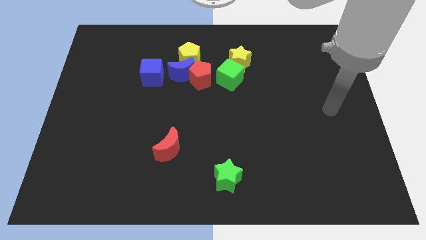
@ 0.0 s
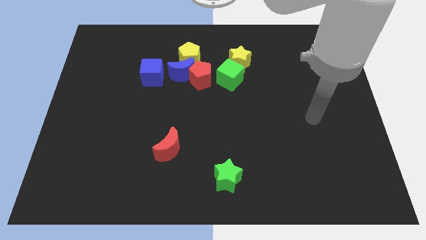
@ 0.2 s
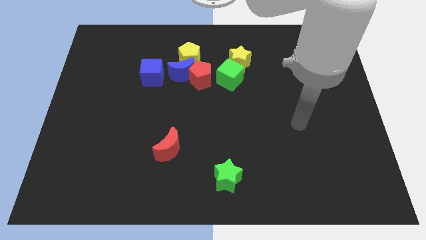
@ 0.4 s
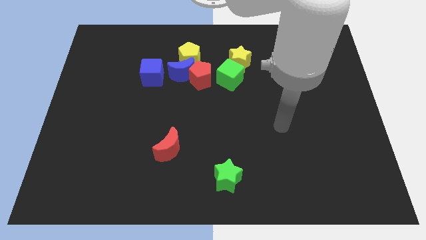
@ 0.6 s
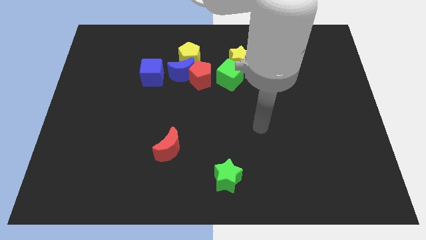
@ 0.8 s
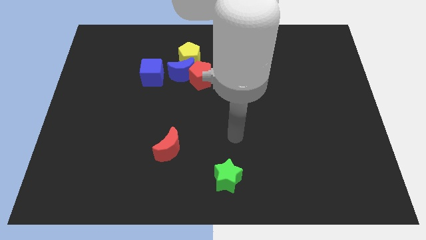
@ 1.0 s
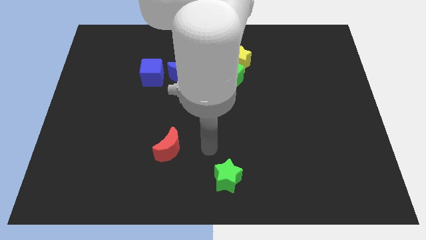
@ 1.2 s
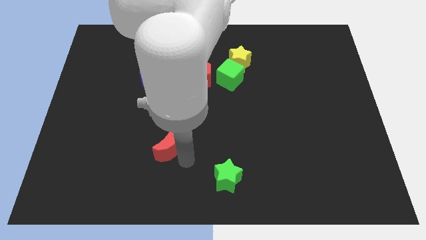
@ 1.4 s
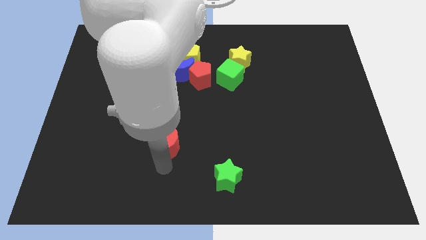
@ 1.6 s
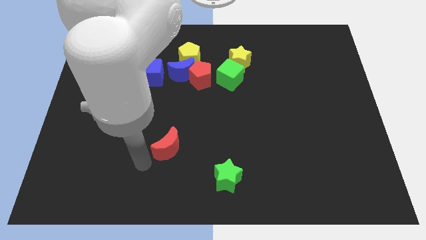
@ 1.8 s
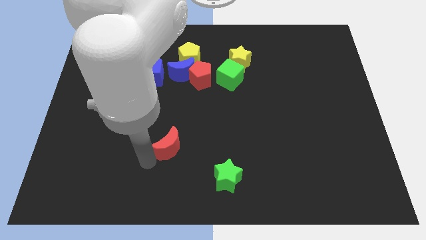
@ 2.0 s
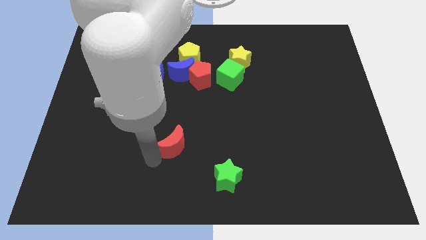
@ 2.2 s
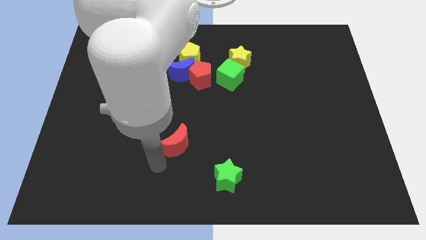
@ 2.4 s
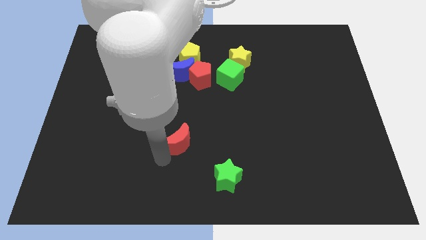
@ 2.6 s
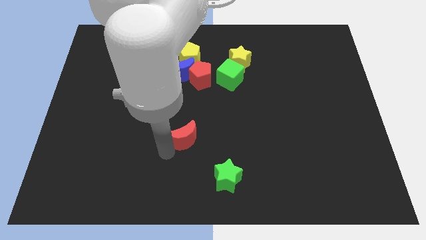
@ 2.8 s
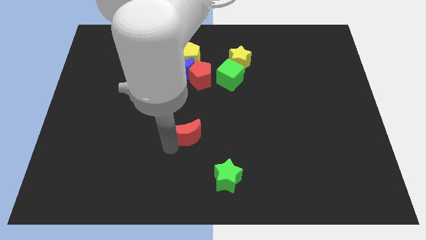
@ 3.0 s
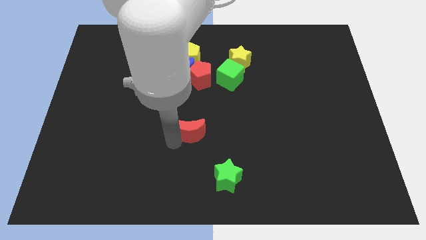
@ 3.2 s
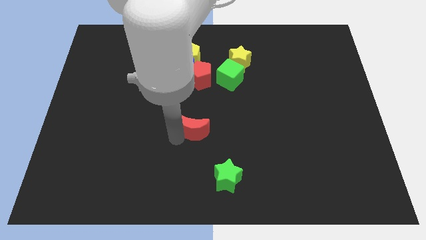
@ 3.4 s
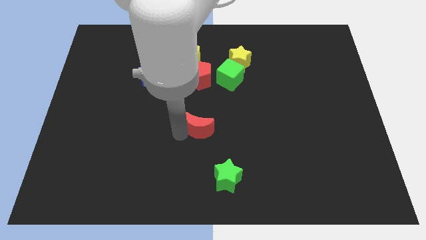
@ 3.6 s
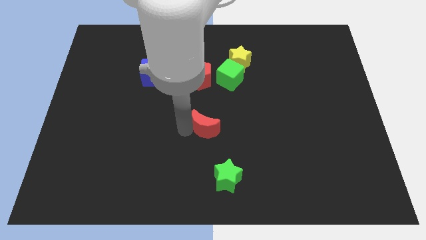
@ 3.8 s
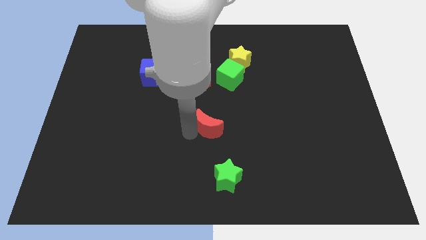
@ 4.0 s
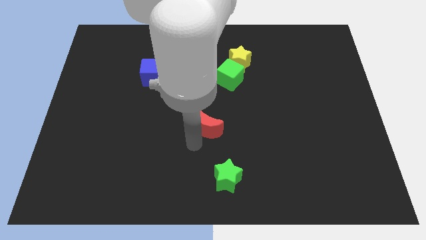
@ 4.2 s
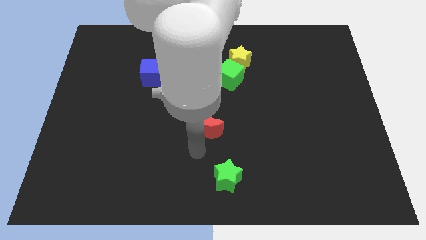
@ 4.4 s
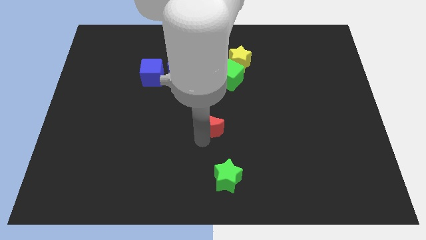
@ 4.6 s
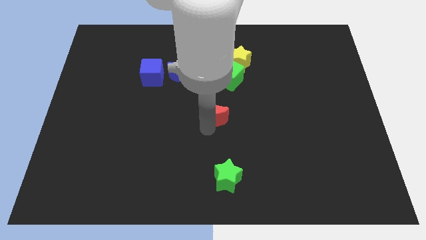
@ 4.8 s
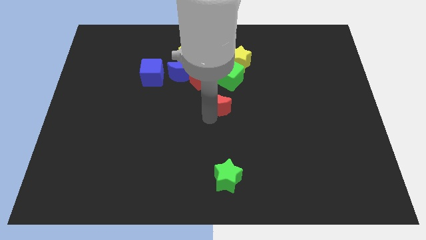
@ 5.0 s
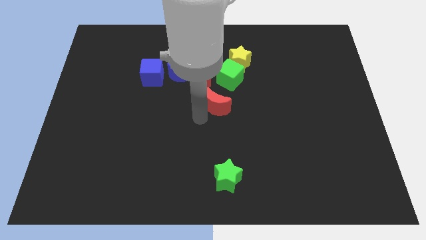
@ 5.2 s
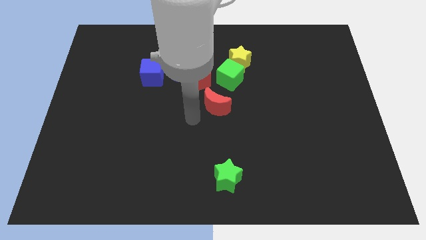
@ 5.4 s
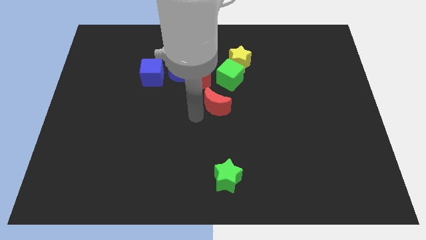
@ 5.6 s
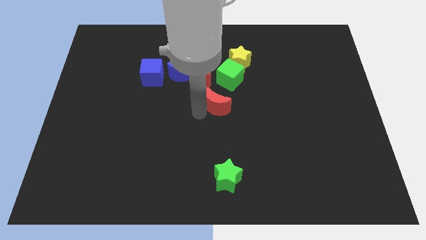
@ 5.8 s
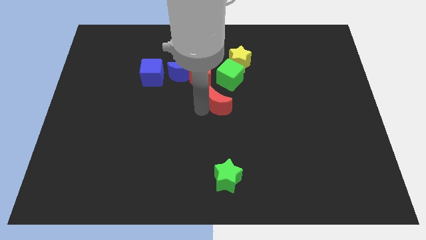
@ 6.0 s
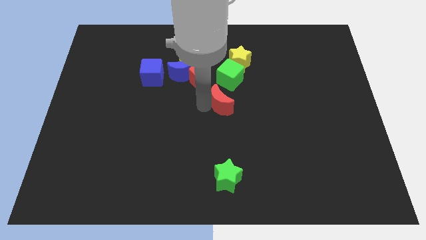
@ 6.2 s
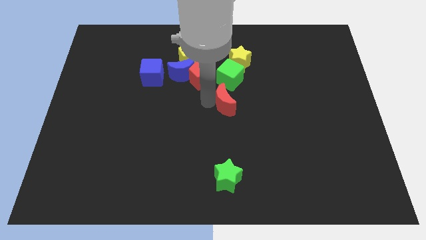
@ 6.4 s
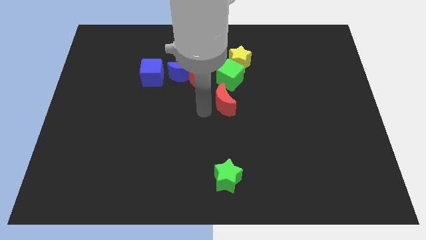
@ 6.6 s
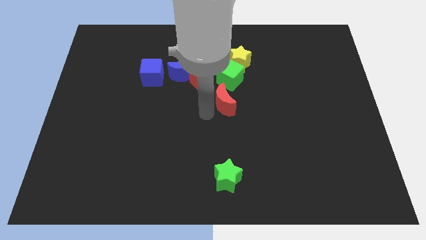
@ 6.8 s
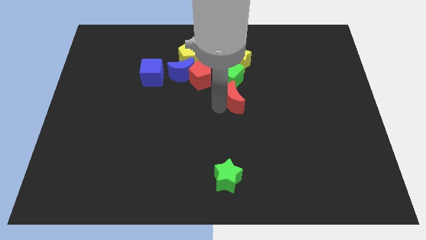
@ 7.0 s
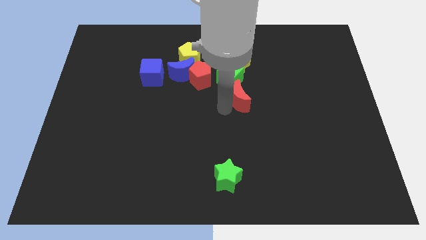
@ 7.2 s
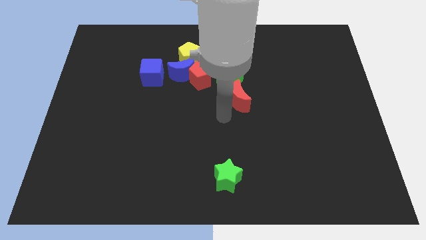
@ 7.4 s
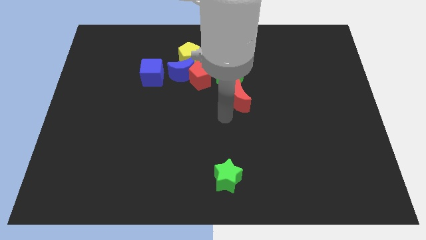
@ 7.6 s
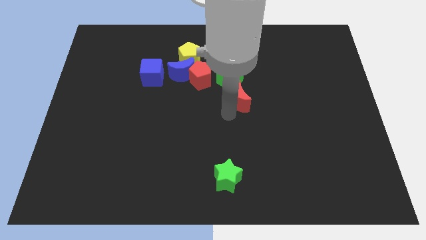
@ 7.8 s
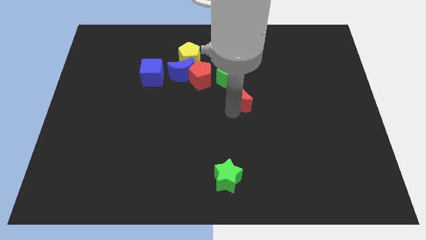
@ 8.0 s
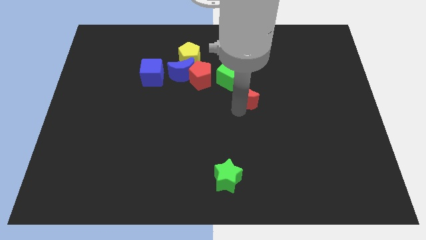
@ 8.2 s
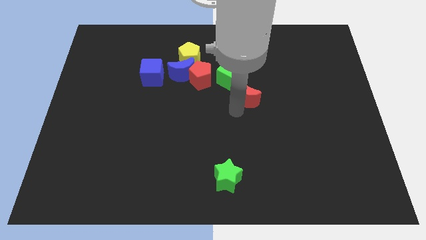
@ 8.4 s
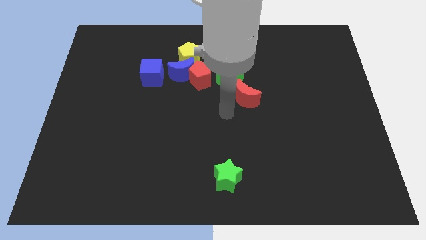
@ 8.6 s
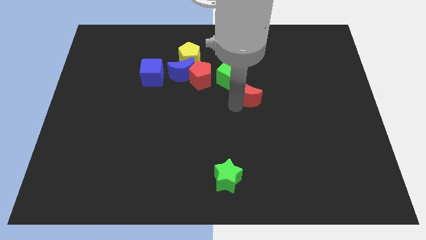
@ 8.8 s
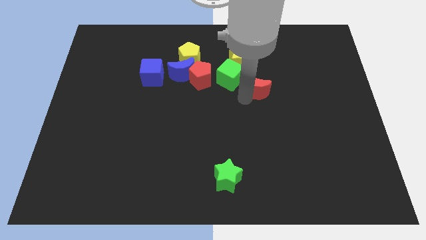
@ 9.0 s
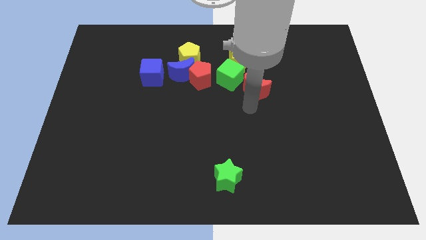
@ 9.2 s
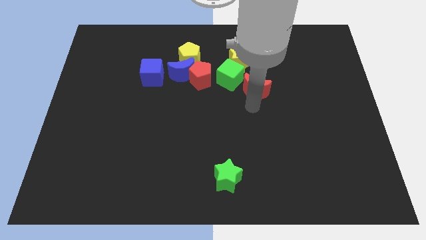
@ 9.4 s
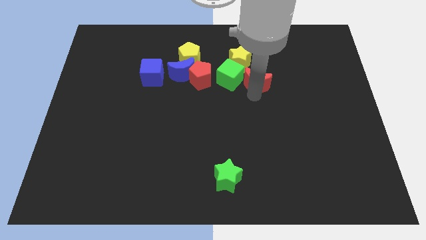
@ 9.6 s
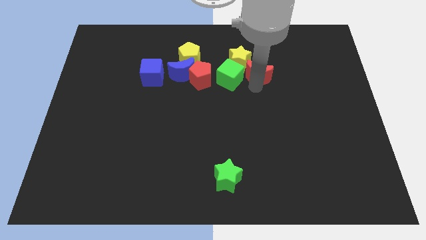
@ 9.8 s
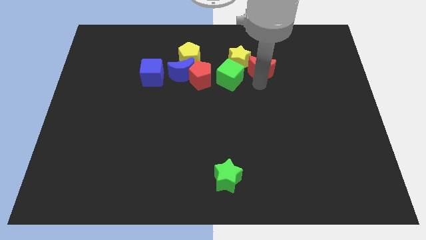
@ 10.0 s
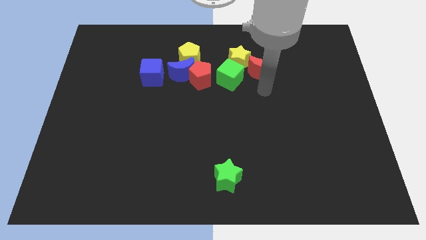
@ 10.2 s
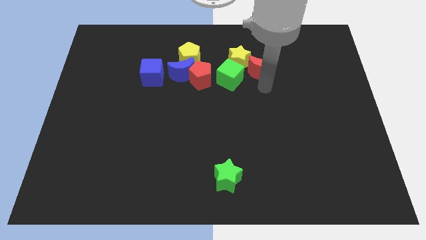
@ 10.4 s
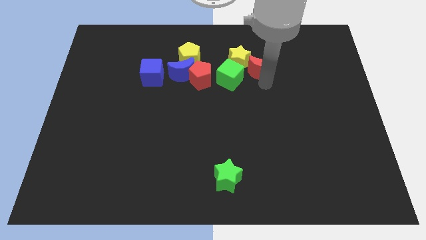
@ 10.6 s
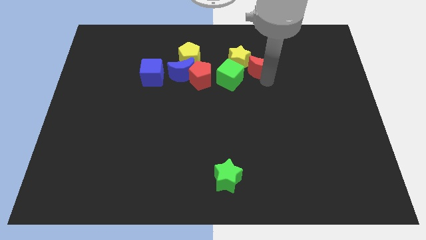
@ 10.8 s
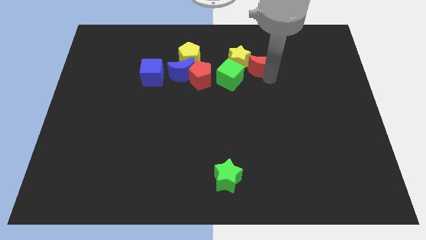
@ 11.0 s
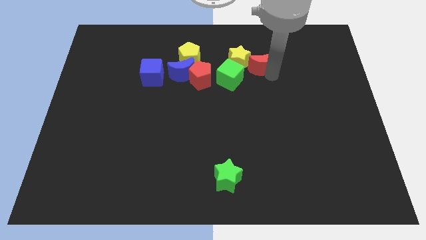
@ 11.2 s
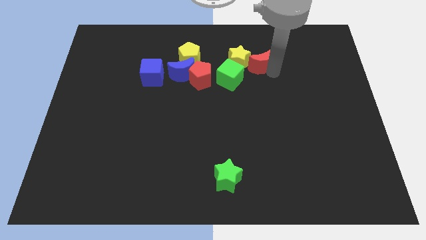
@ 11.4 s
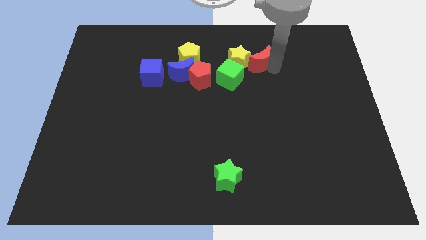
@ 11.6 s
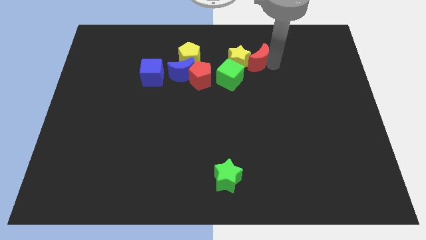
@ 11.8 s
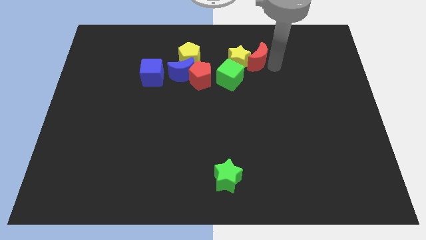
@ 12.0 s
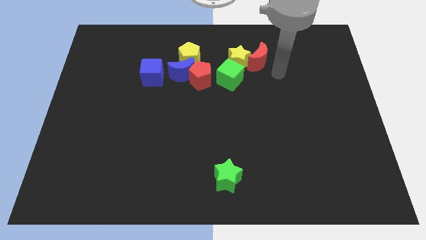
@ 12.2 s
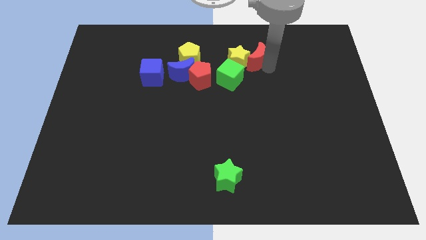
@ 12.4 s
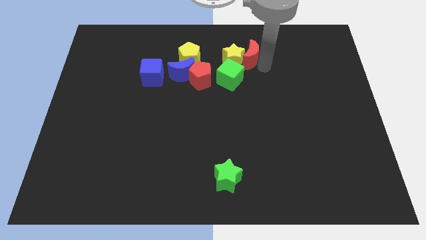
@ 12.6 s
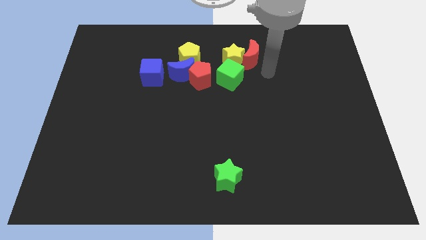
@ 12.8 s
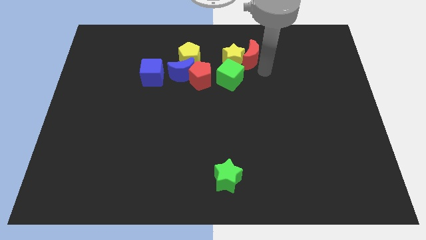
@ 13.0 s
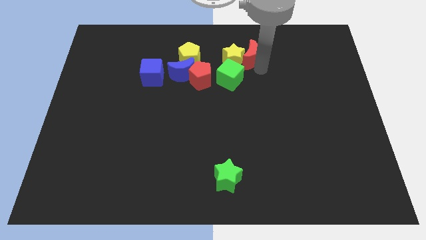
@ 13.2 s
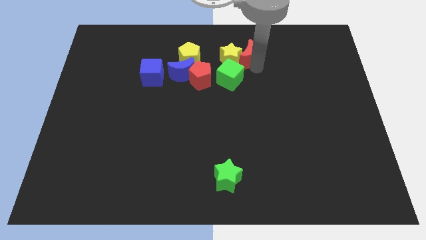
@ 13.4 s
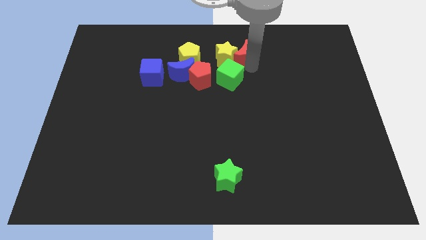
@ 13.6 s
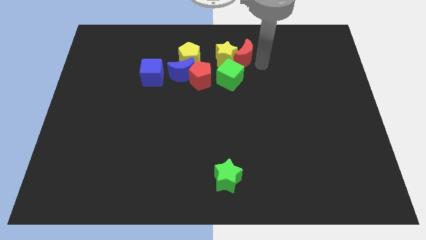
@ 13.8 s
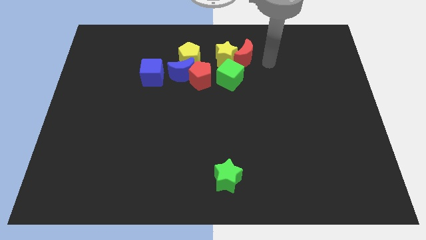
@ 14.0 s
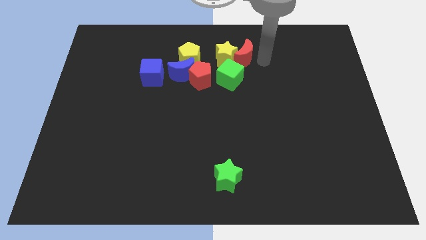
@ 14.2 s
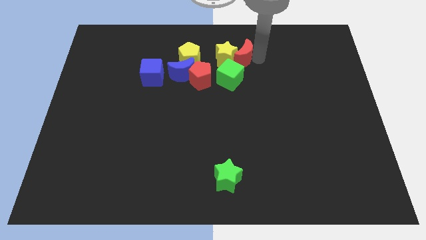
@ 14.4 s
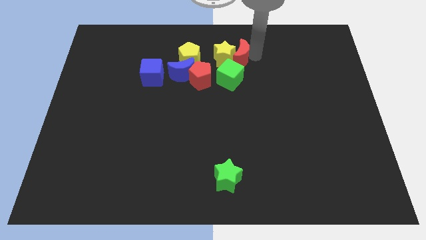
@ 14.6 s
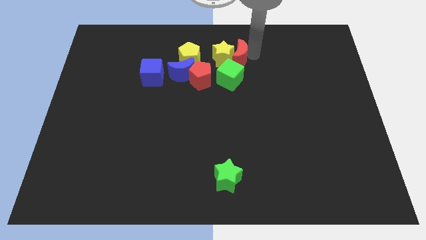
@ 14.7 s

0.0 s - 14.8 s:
push the red moon to the top right of the red pentagon
